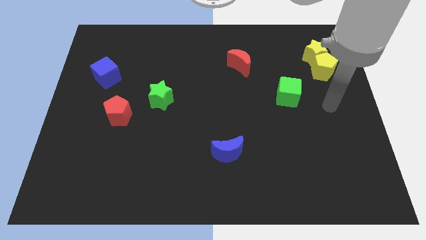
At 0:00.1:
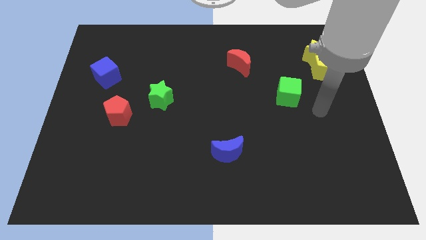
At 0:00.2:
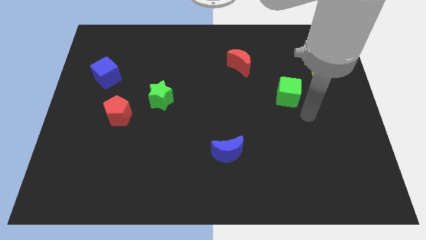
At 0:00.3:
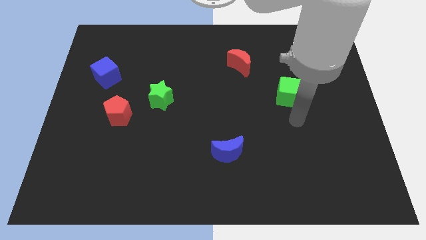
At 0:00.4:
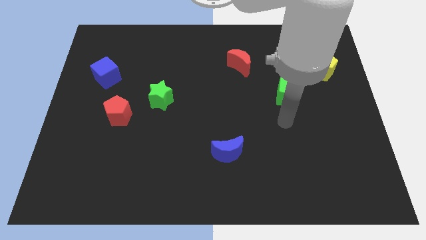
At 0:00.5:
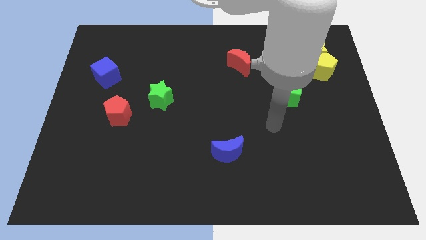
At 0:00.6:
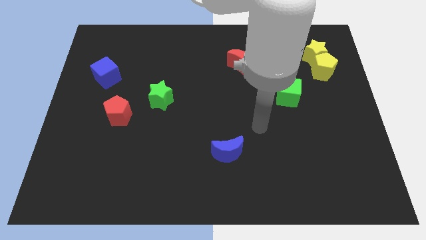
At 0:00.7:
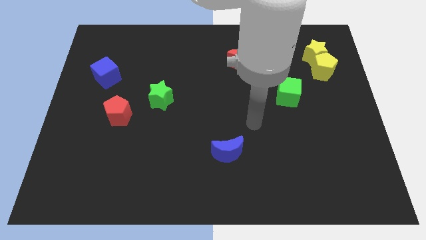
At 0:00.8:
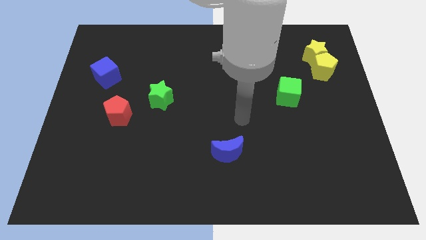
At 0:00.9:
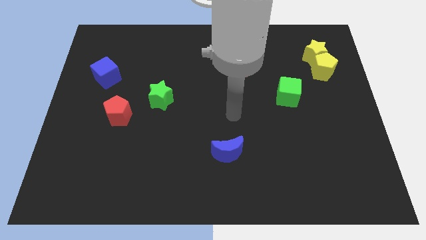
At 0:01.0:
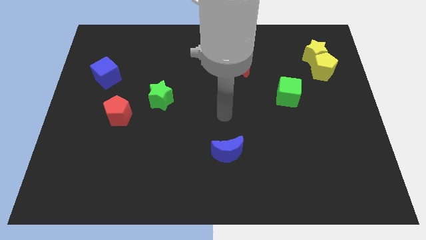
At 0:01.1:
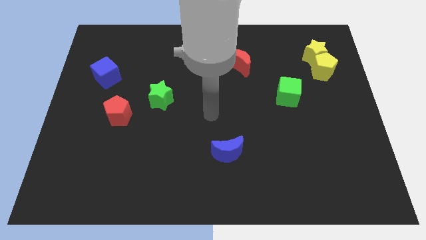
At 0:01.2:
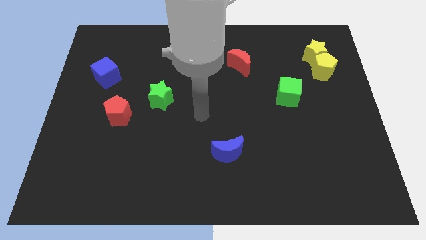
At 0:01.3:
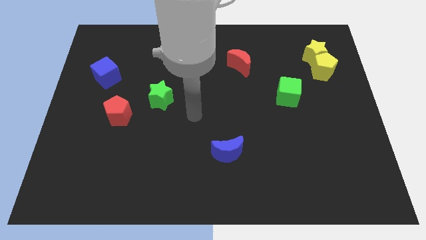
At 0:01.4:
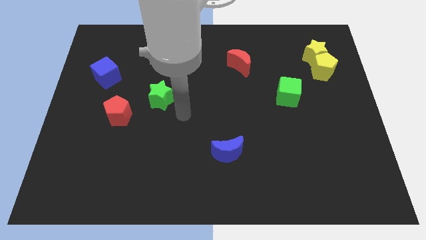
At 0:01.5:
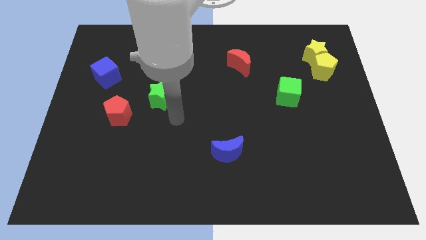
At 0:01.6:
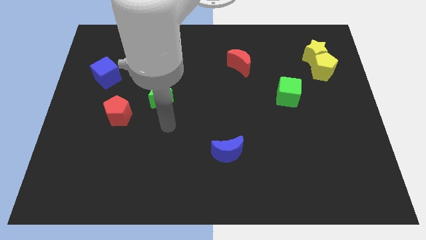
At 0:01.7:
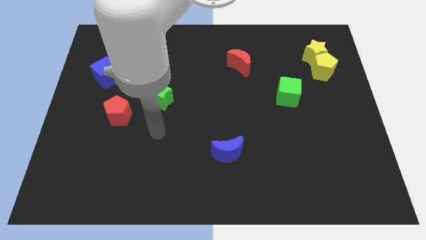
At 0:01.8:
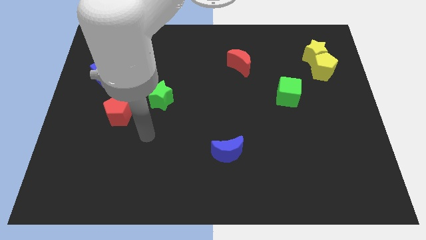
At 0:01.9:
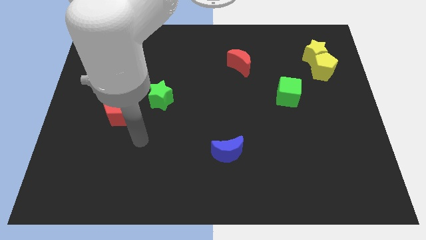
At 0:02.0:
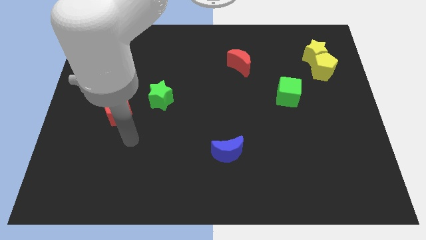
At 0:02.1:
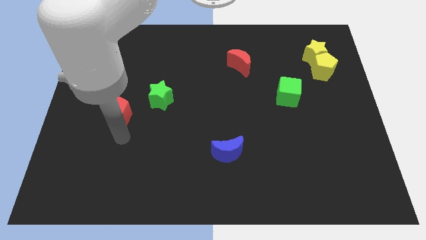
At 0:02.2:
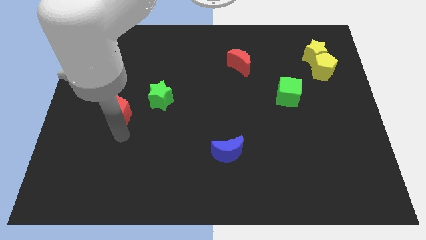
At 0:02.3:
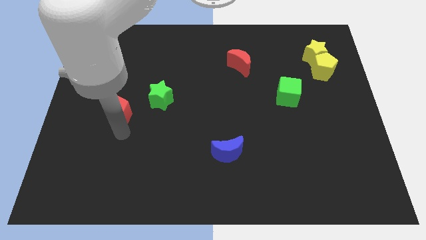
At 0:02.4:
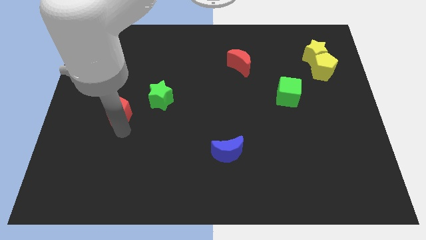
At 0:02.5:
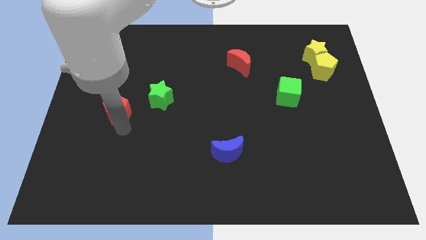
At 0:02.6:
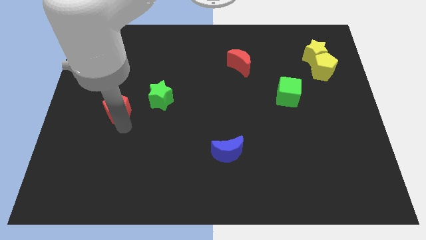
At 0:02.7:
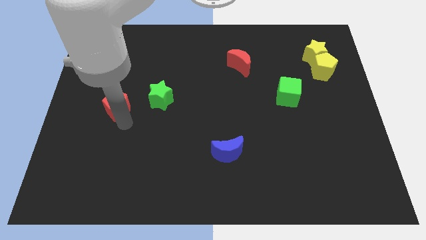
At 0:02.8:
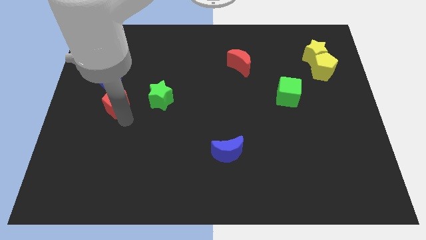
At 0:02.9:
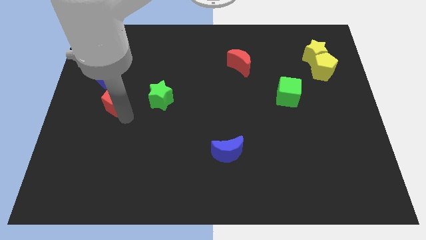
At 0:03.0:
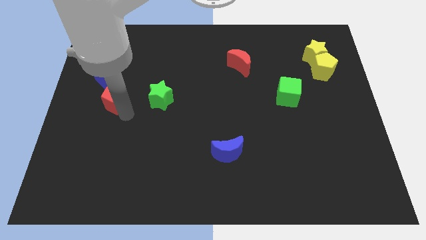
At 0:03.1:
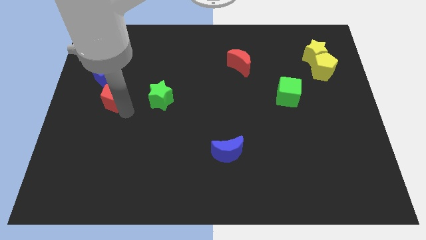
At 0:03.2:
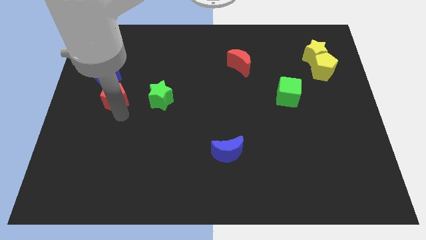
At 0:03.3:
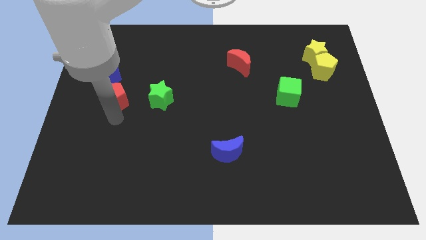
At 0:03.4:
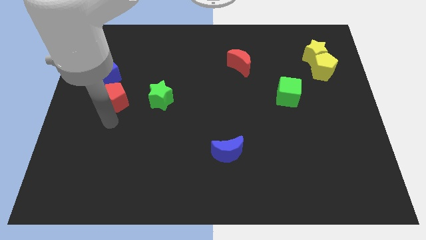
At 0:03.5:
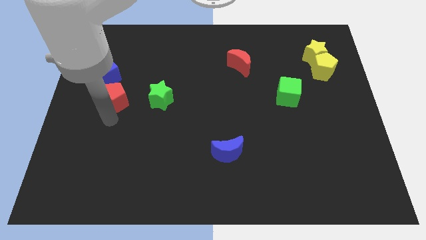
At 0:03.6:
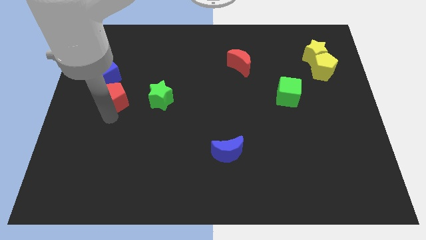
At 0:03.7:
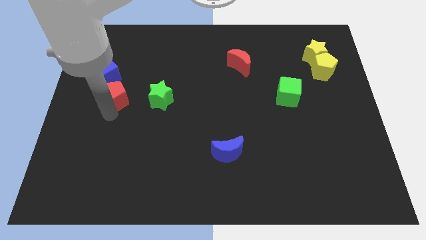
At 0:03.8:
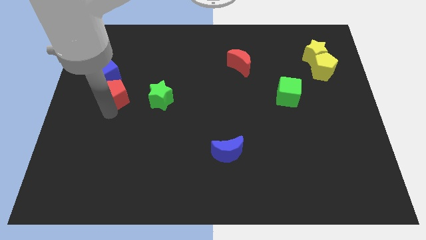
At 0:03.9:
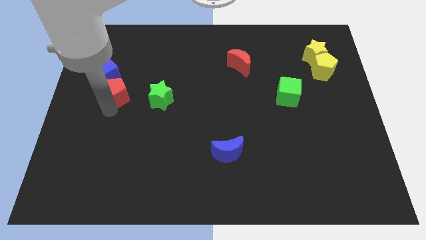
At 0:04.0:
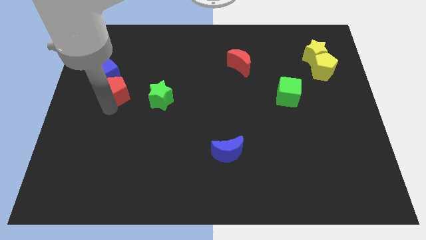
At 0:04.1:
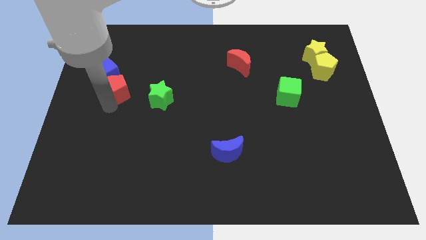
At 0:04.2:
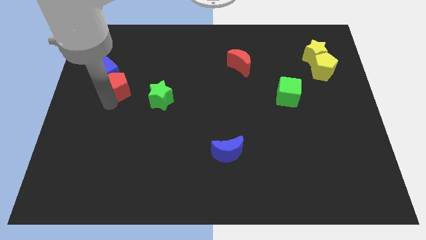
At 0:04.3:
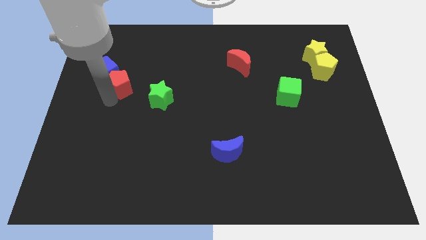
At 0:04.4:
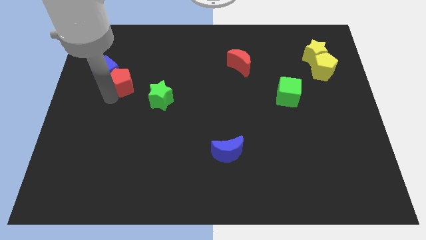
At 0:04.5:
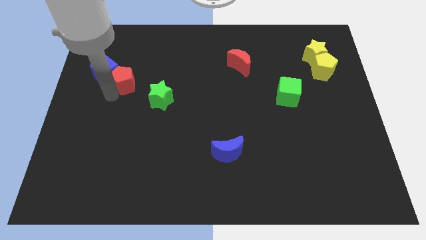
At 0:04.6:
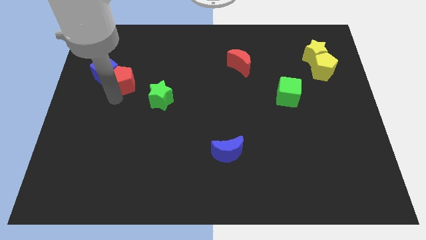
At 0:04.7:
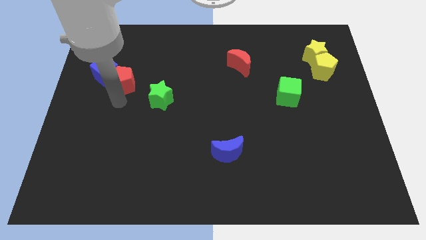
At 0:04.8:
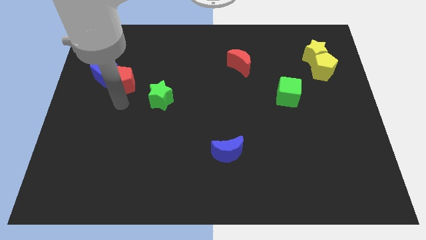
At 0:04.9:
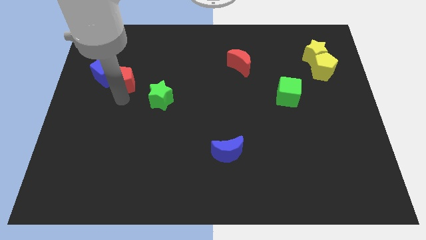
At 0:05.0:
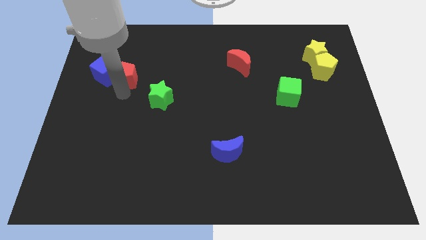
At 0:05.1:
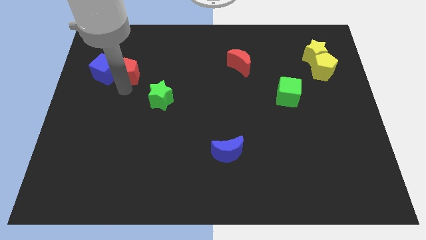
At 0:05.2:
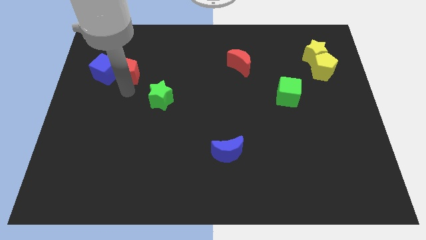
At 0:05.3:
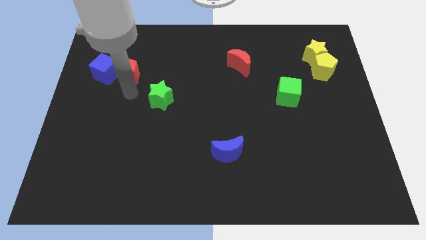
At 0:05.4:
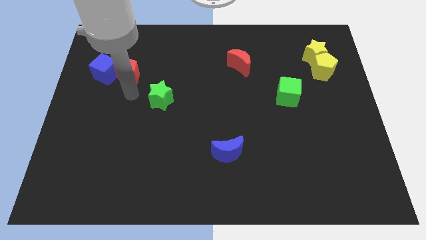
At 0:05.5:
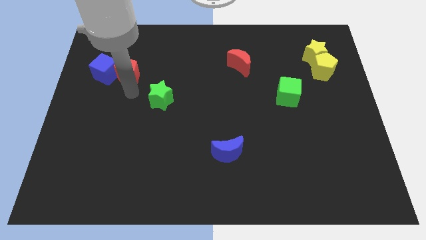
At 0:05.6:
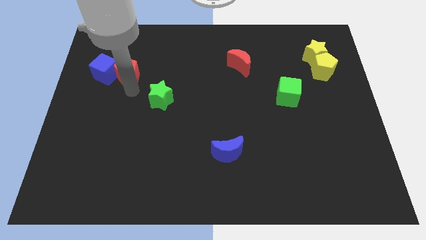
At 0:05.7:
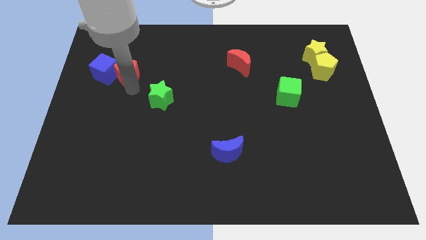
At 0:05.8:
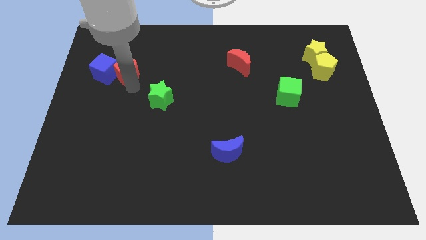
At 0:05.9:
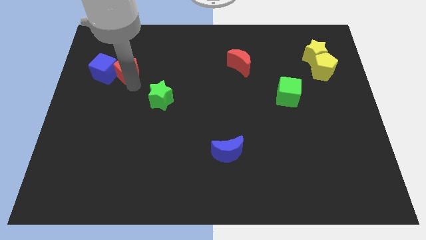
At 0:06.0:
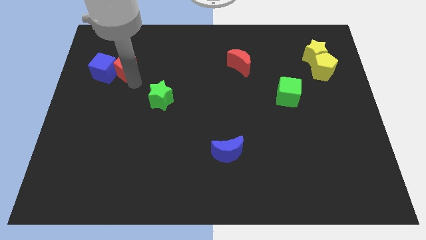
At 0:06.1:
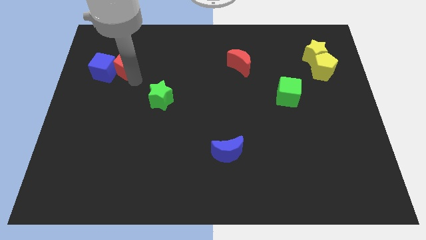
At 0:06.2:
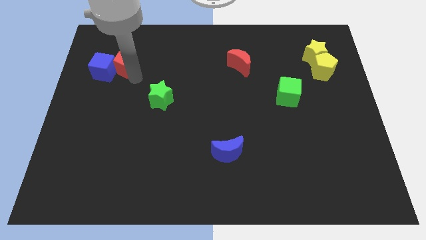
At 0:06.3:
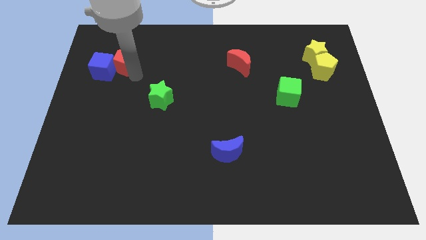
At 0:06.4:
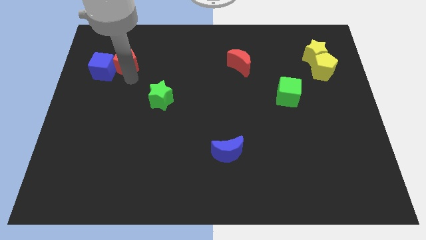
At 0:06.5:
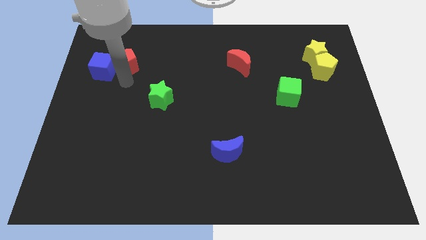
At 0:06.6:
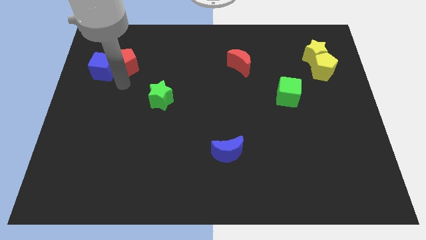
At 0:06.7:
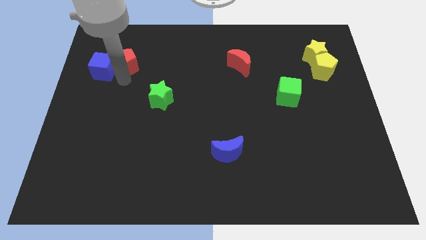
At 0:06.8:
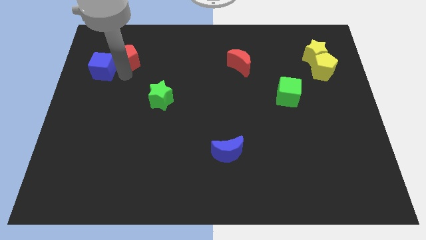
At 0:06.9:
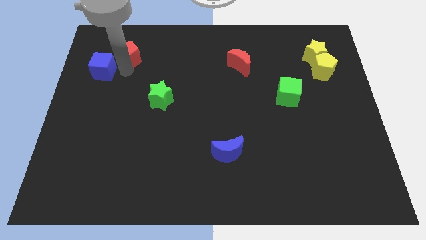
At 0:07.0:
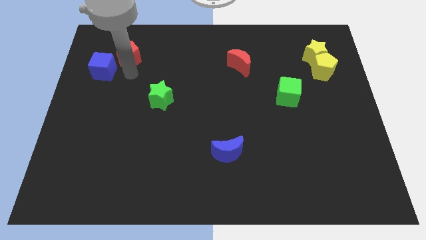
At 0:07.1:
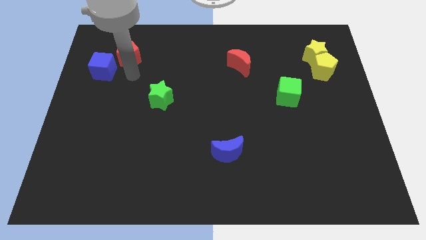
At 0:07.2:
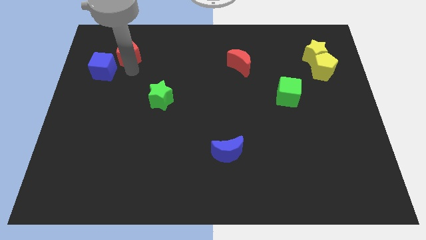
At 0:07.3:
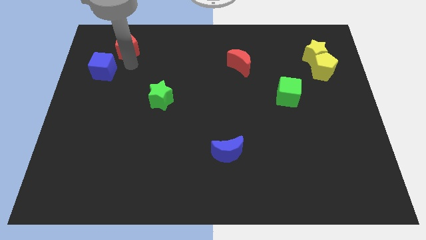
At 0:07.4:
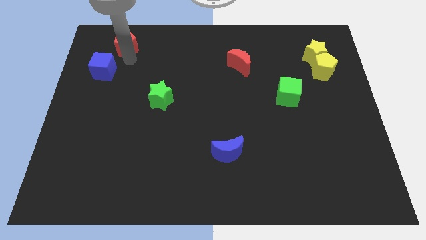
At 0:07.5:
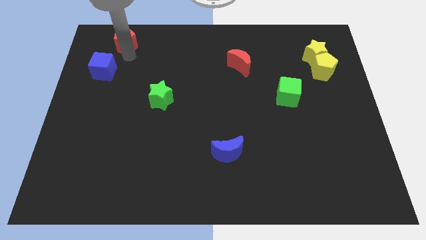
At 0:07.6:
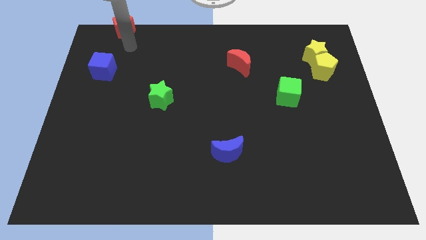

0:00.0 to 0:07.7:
put the red pentagon to the top left corner

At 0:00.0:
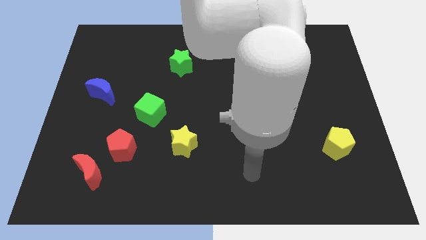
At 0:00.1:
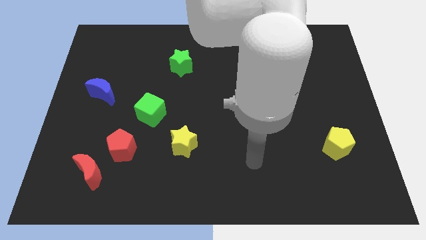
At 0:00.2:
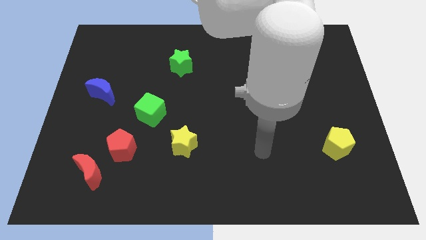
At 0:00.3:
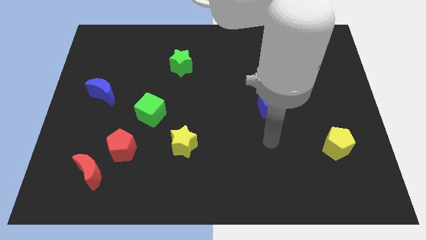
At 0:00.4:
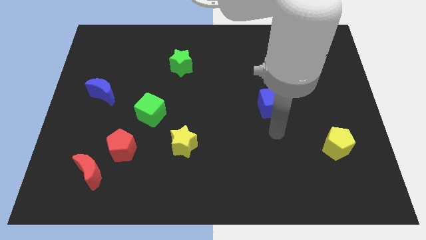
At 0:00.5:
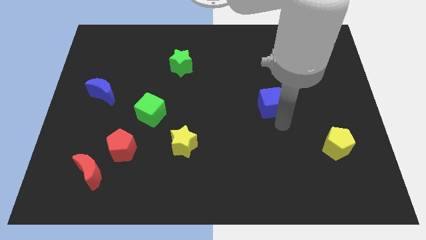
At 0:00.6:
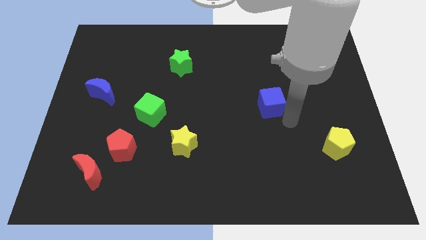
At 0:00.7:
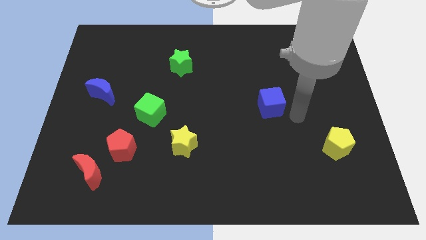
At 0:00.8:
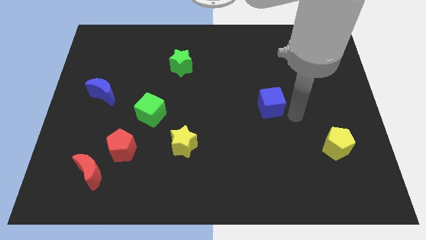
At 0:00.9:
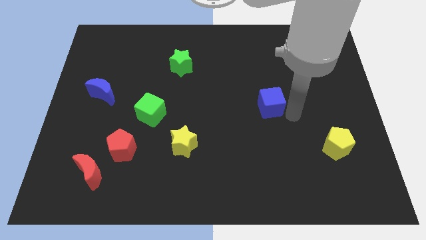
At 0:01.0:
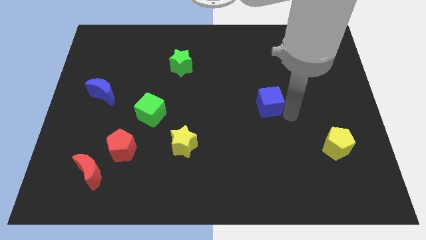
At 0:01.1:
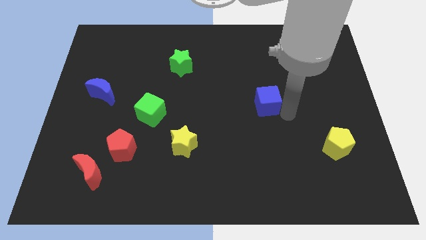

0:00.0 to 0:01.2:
put the blue cube to the center of the board
